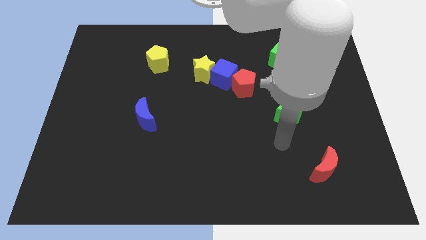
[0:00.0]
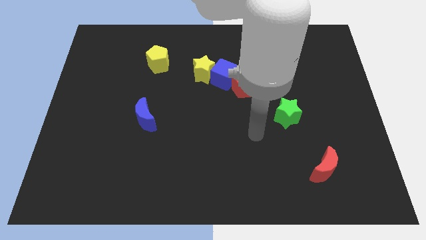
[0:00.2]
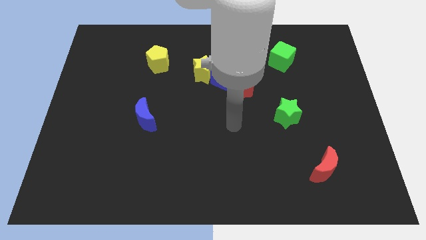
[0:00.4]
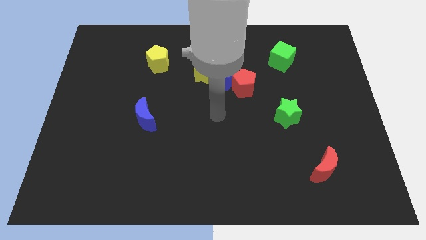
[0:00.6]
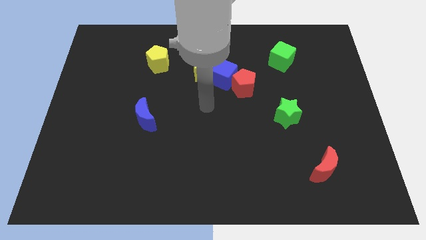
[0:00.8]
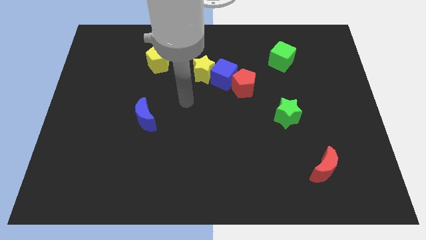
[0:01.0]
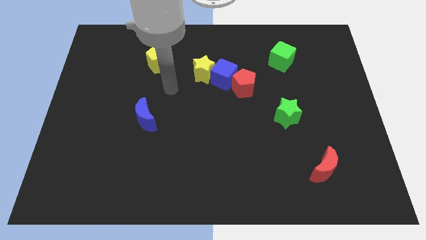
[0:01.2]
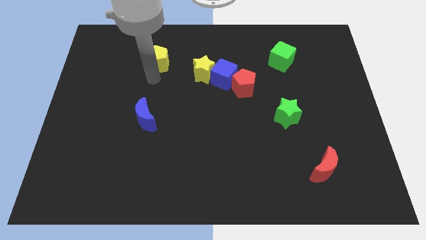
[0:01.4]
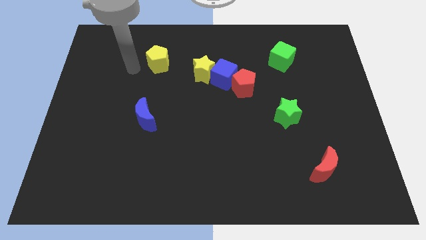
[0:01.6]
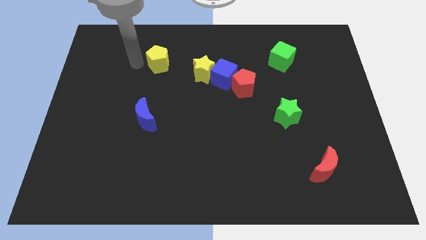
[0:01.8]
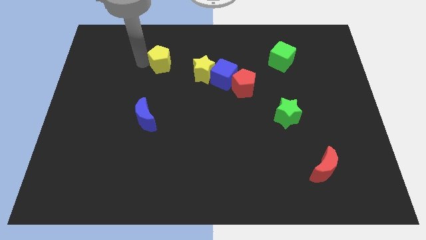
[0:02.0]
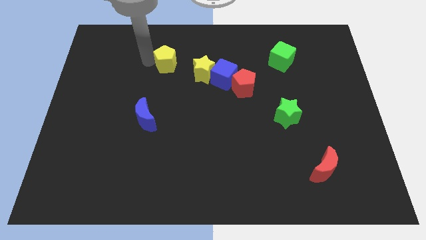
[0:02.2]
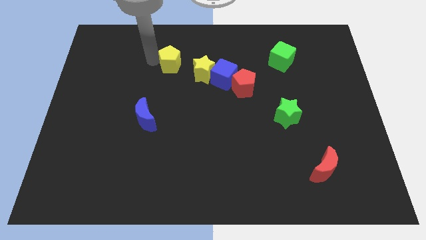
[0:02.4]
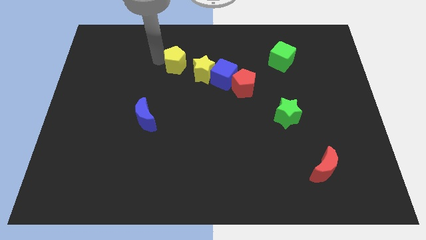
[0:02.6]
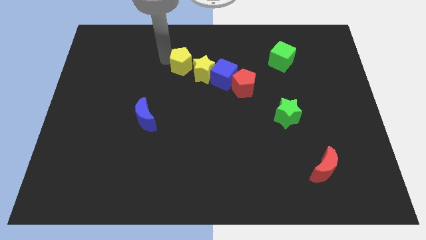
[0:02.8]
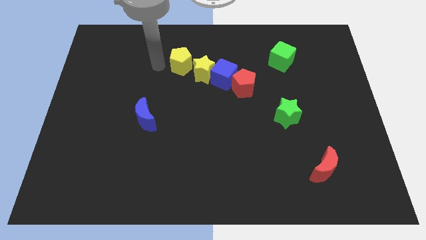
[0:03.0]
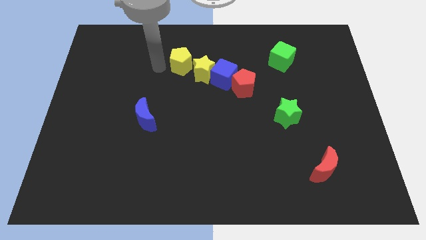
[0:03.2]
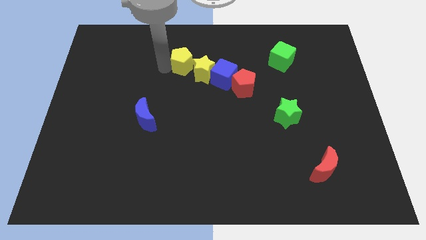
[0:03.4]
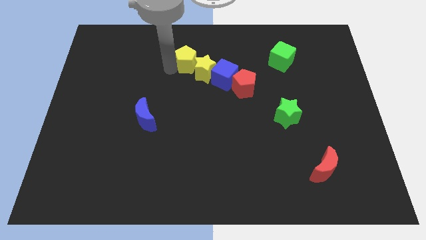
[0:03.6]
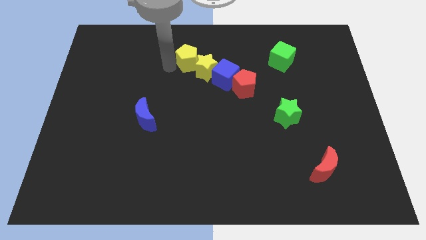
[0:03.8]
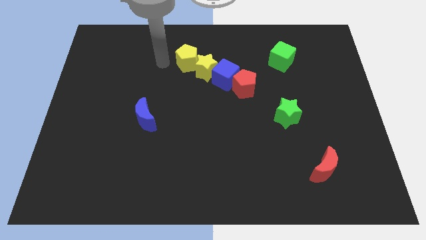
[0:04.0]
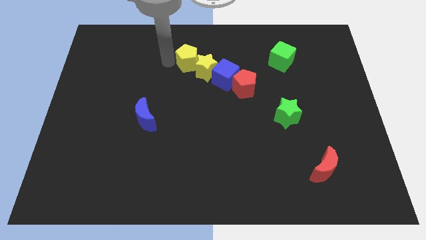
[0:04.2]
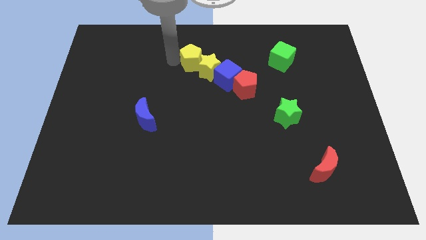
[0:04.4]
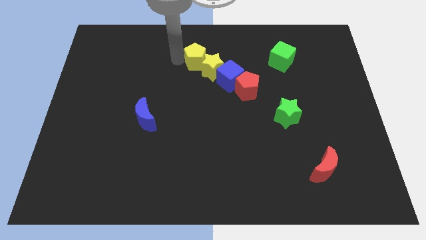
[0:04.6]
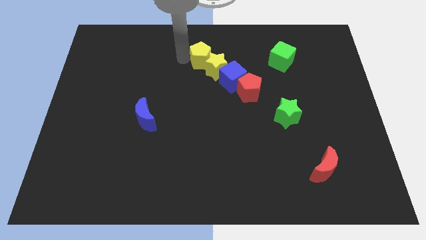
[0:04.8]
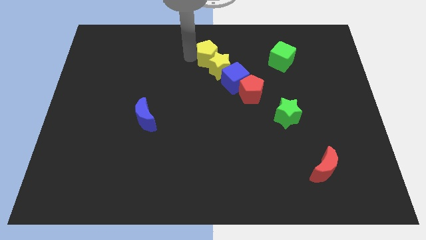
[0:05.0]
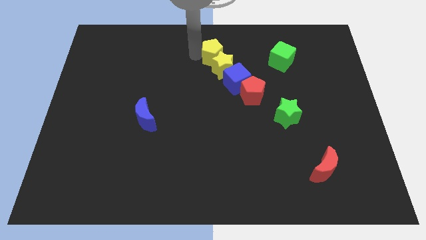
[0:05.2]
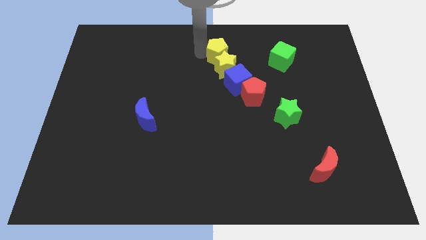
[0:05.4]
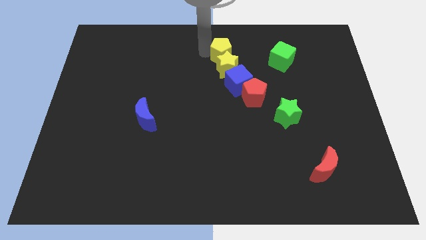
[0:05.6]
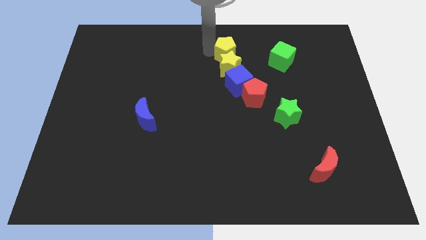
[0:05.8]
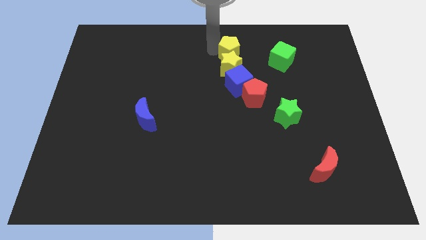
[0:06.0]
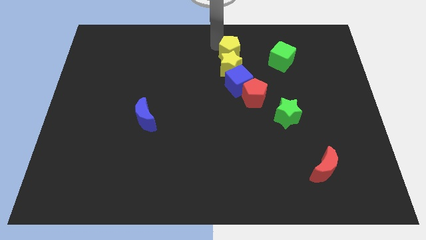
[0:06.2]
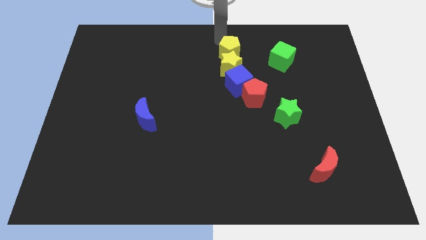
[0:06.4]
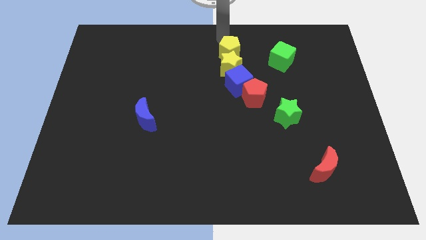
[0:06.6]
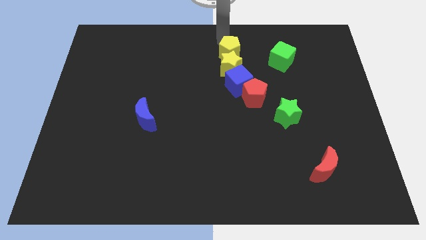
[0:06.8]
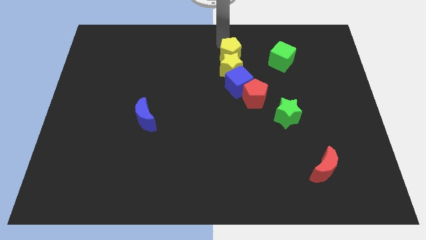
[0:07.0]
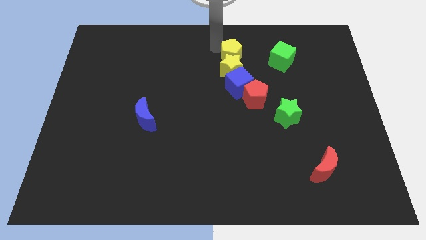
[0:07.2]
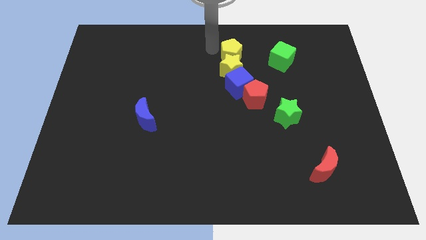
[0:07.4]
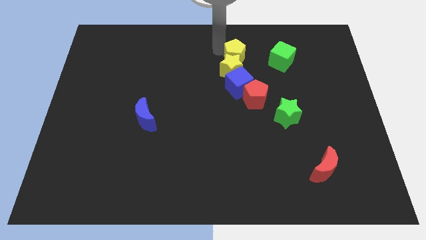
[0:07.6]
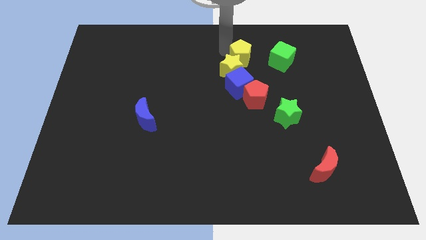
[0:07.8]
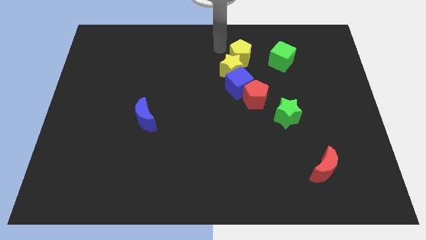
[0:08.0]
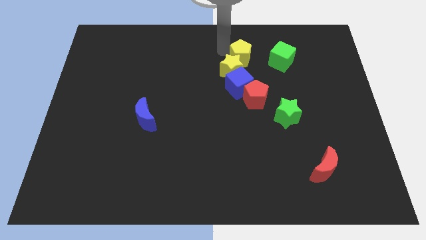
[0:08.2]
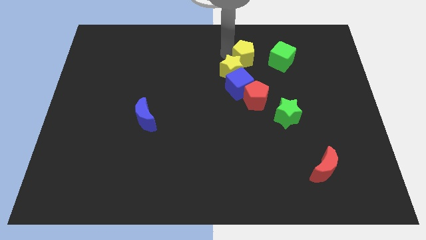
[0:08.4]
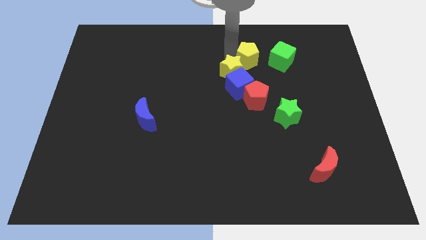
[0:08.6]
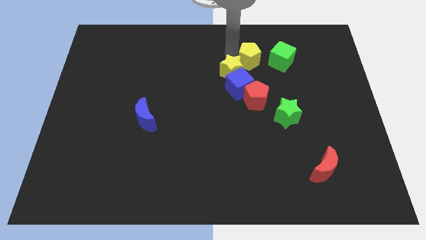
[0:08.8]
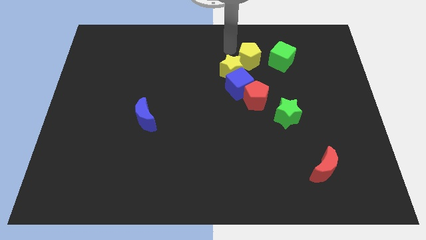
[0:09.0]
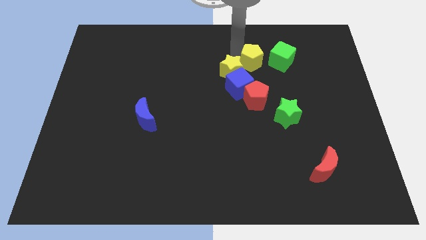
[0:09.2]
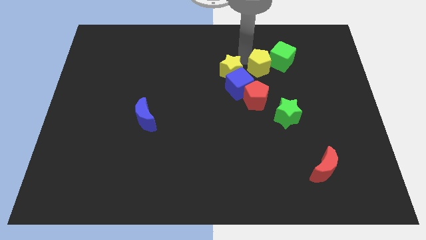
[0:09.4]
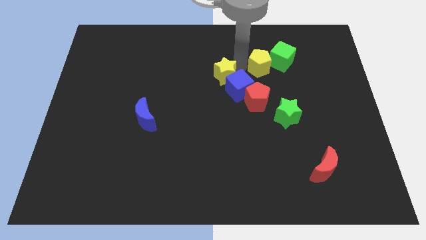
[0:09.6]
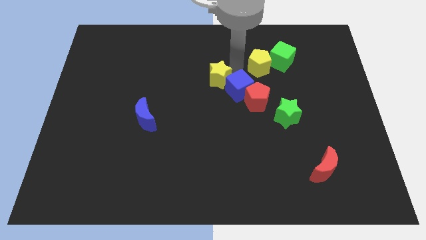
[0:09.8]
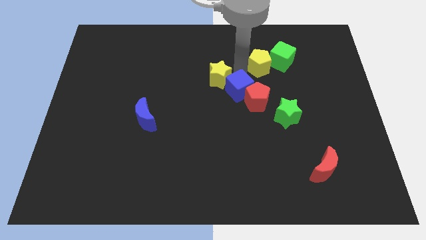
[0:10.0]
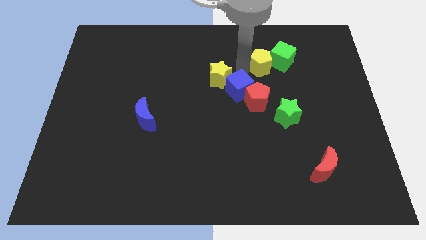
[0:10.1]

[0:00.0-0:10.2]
put the yellow pentagon towards the green cube

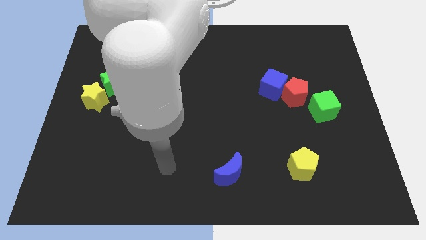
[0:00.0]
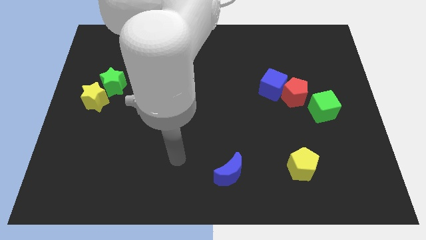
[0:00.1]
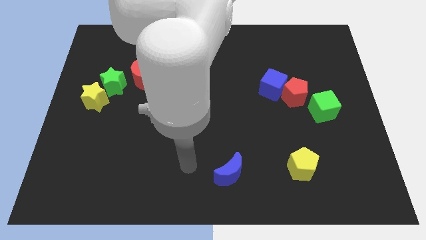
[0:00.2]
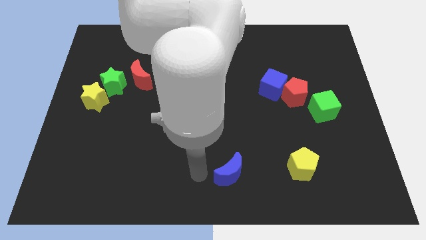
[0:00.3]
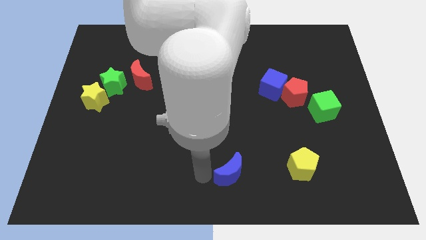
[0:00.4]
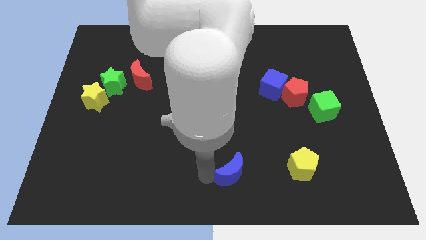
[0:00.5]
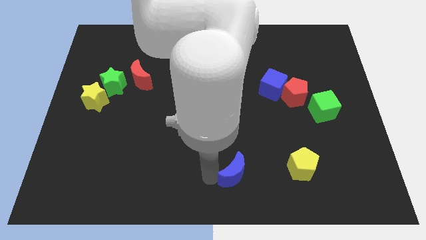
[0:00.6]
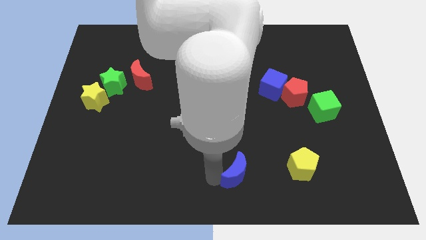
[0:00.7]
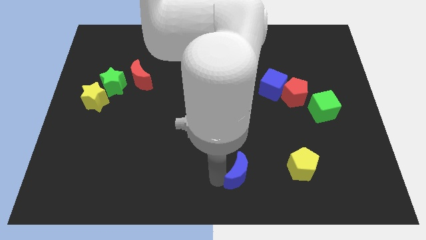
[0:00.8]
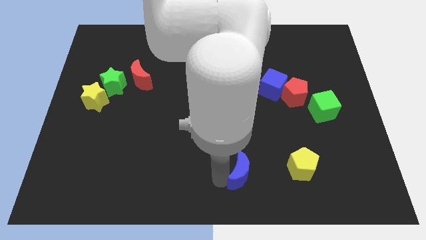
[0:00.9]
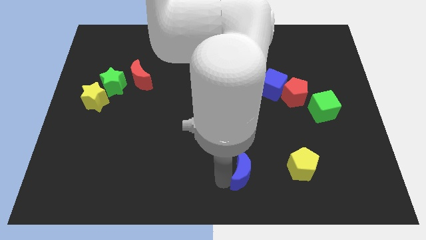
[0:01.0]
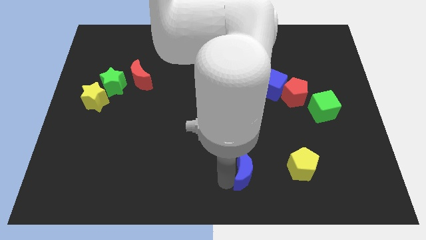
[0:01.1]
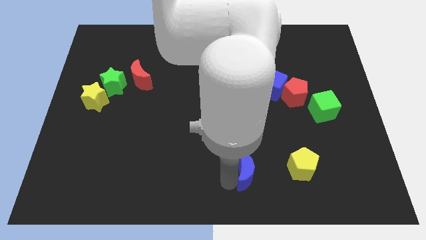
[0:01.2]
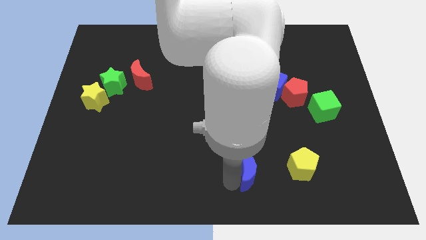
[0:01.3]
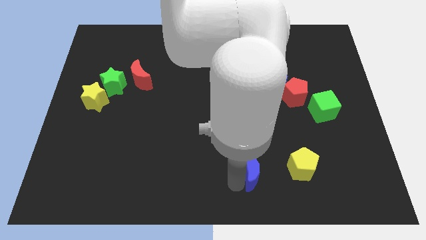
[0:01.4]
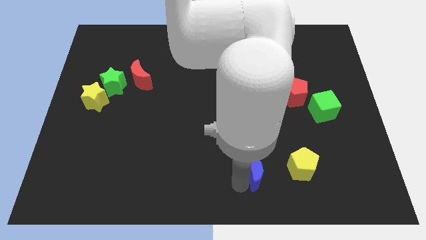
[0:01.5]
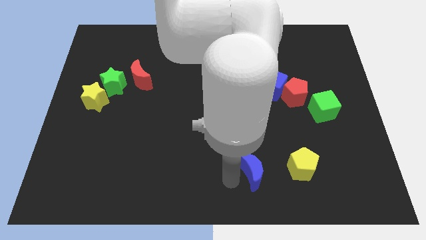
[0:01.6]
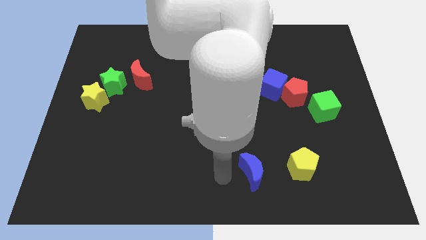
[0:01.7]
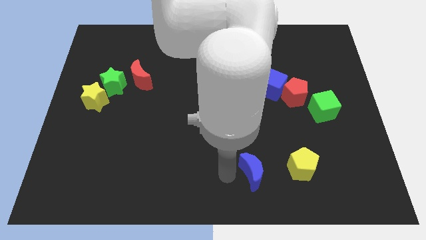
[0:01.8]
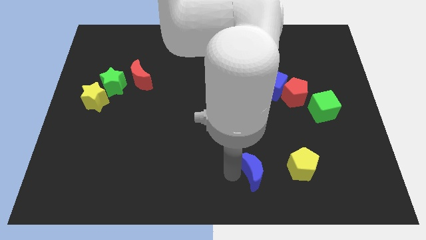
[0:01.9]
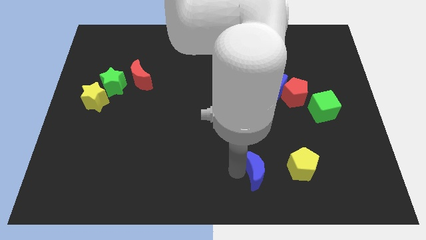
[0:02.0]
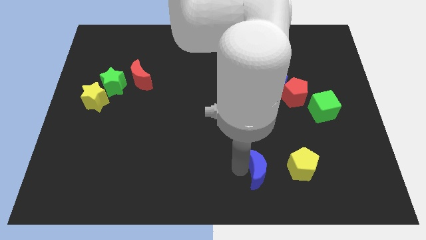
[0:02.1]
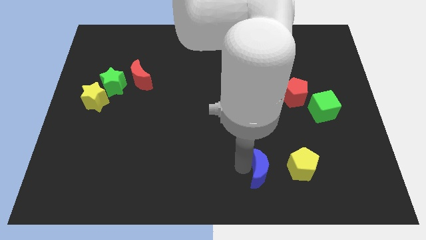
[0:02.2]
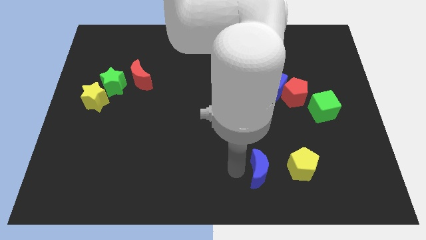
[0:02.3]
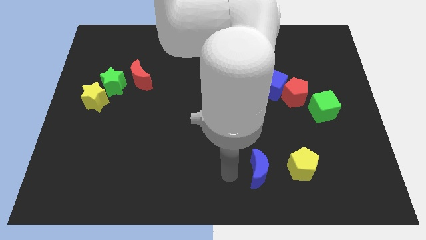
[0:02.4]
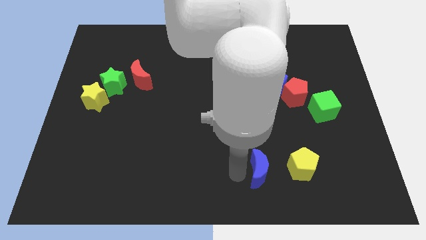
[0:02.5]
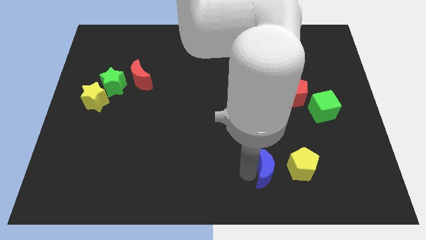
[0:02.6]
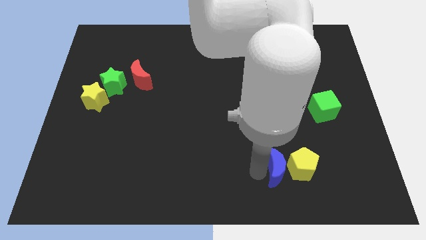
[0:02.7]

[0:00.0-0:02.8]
push the blue moon towards the yellow pentagon

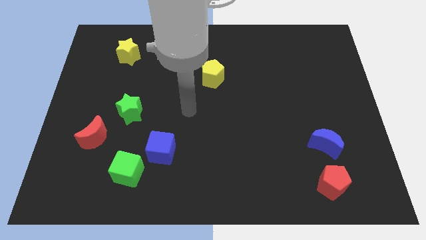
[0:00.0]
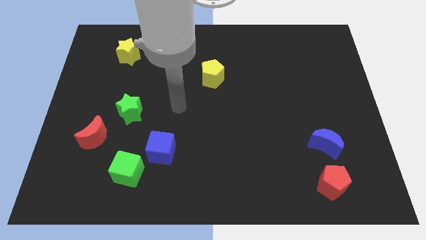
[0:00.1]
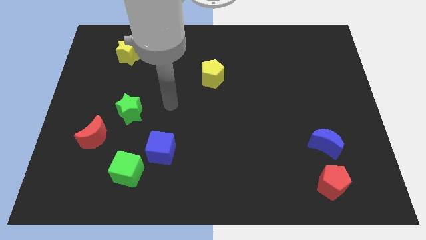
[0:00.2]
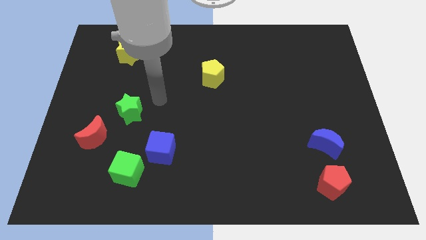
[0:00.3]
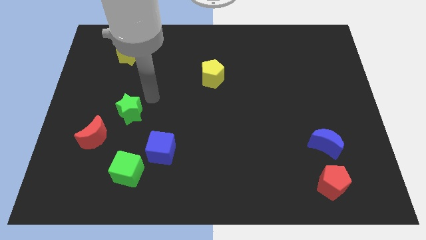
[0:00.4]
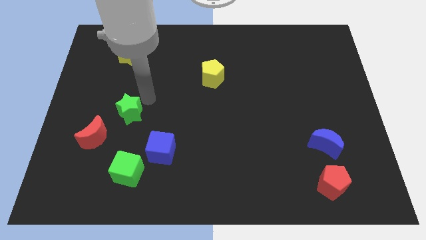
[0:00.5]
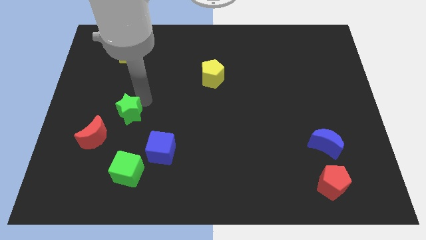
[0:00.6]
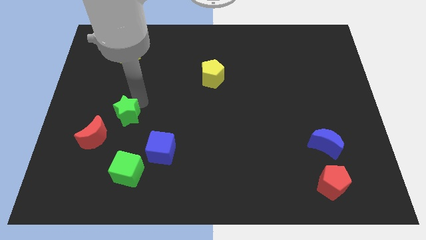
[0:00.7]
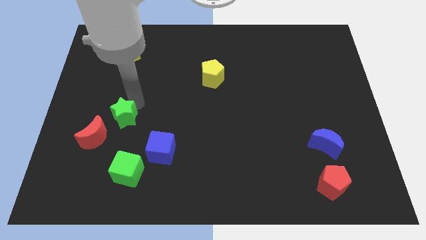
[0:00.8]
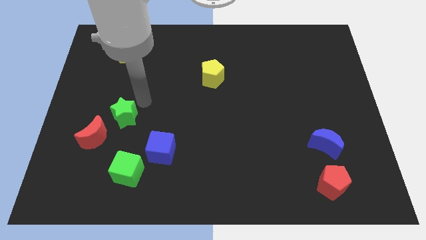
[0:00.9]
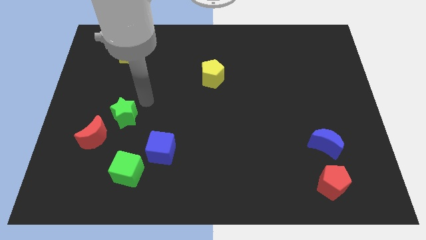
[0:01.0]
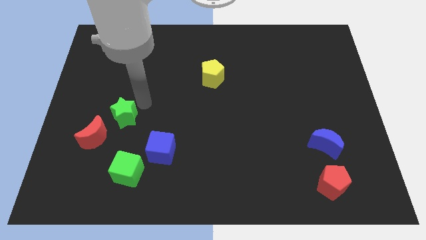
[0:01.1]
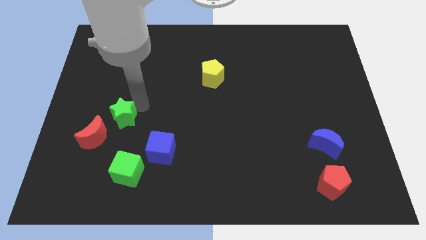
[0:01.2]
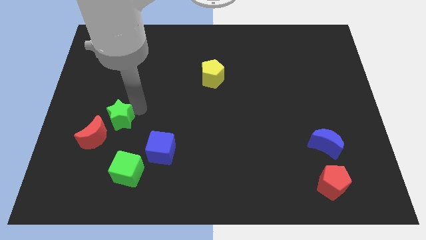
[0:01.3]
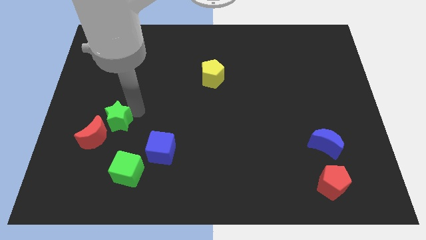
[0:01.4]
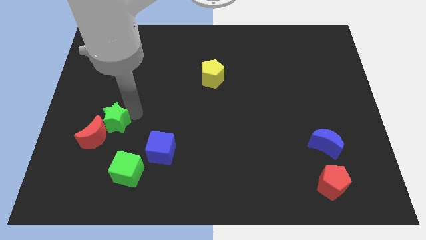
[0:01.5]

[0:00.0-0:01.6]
slide the green star next to the red moon
